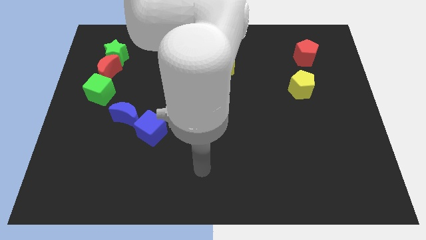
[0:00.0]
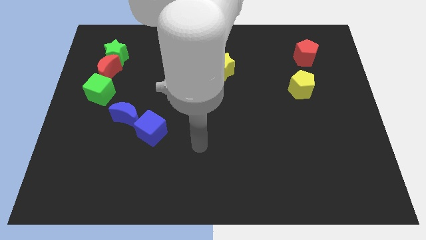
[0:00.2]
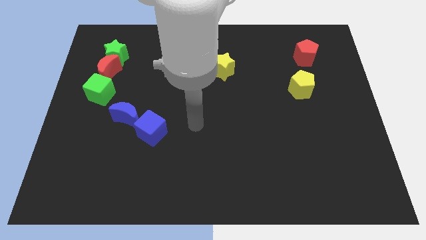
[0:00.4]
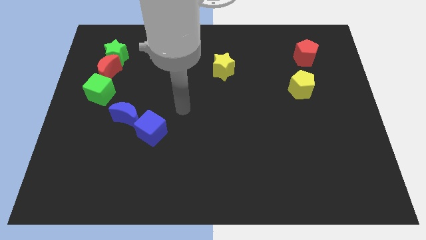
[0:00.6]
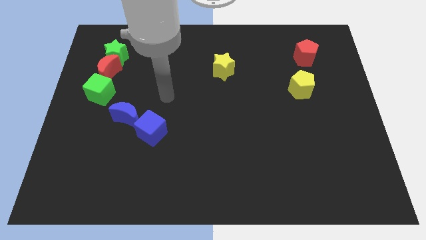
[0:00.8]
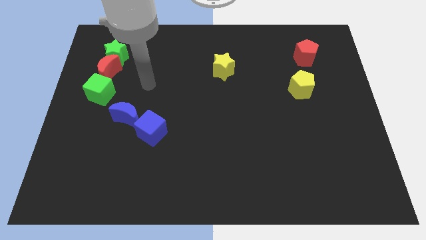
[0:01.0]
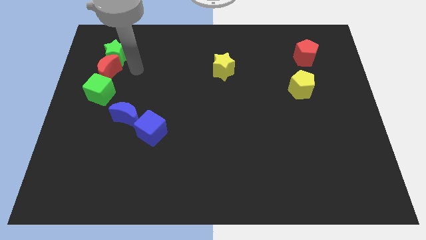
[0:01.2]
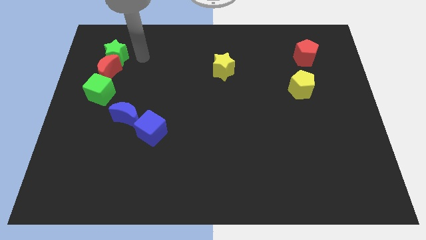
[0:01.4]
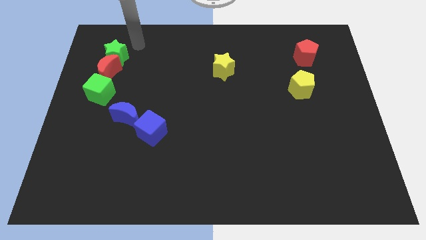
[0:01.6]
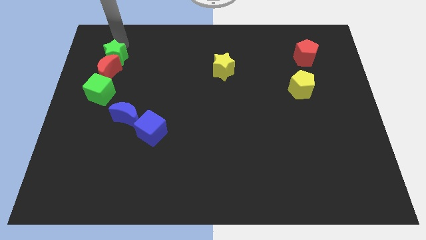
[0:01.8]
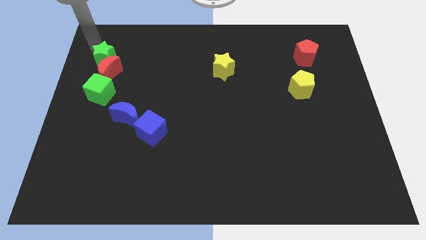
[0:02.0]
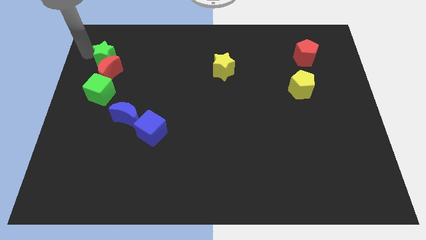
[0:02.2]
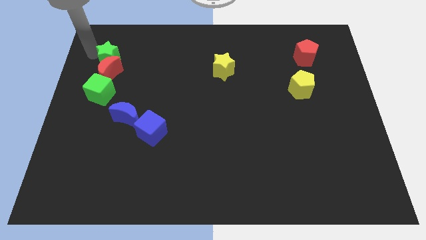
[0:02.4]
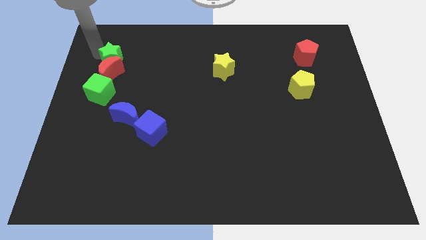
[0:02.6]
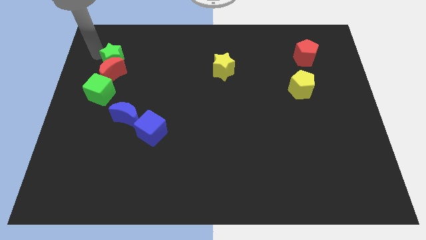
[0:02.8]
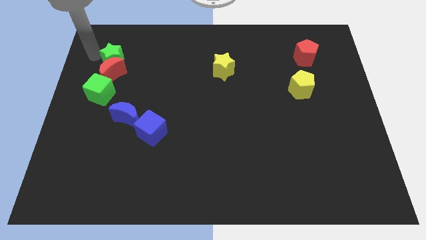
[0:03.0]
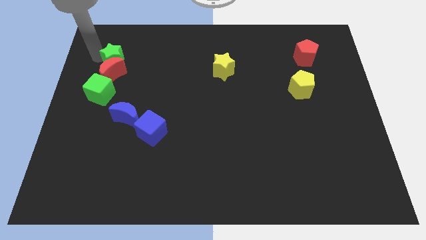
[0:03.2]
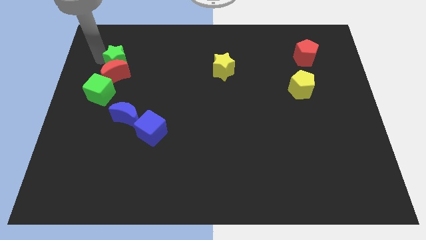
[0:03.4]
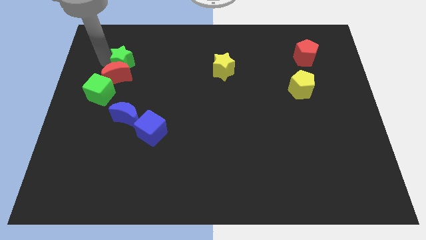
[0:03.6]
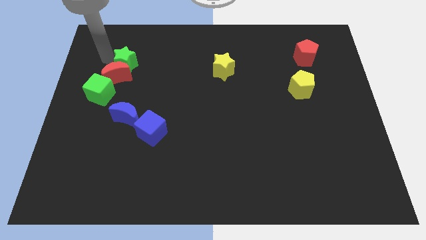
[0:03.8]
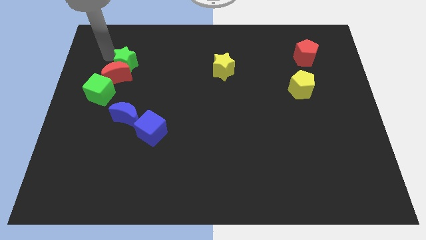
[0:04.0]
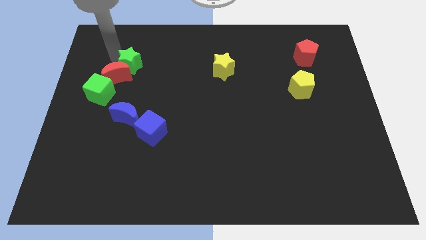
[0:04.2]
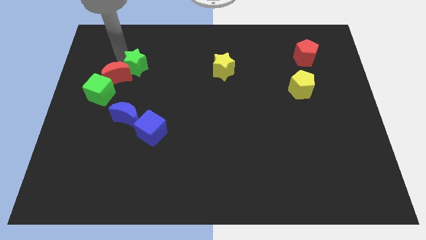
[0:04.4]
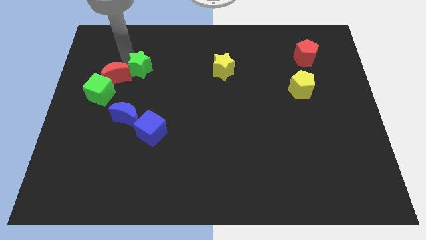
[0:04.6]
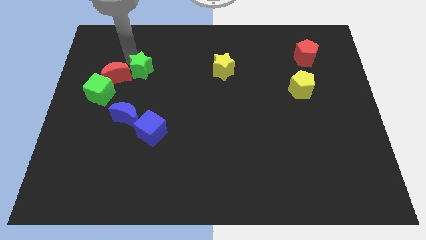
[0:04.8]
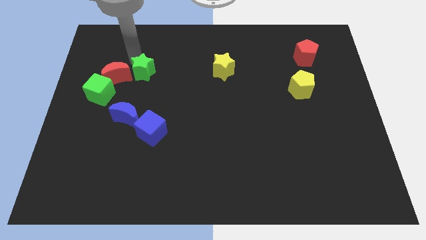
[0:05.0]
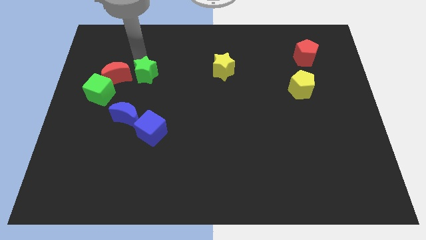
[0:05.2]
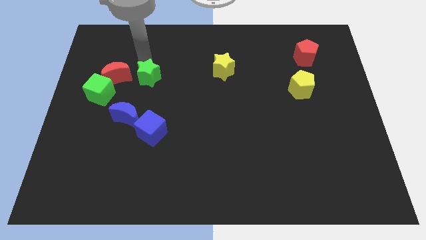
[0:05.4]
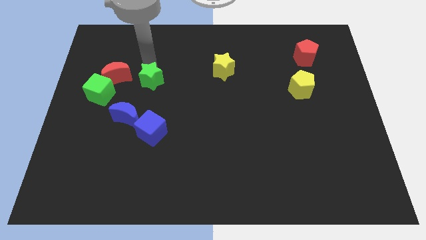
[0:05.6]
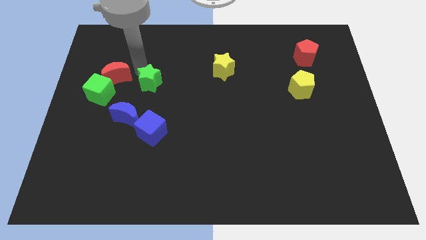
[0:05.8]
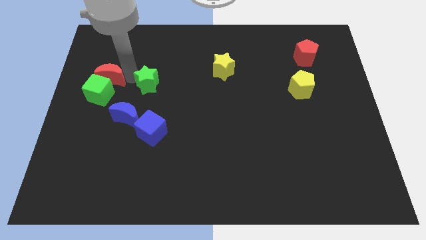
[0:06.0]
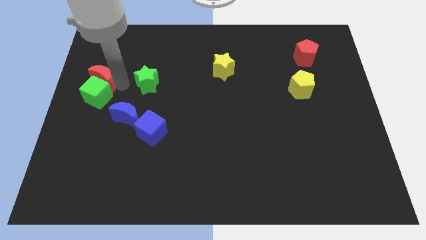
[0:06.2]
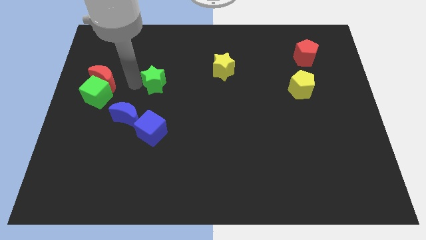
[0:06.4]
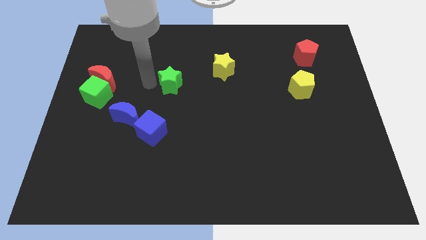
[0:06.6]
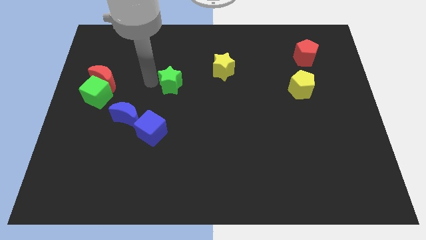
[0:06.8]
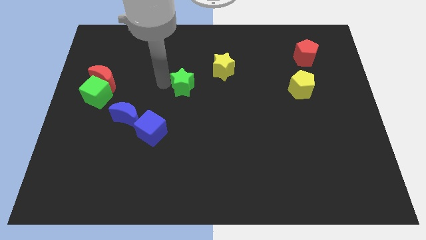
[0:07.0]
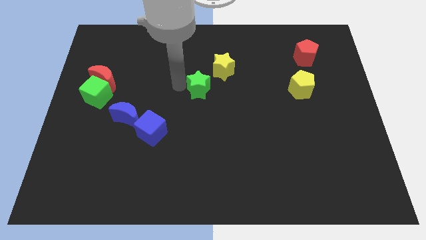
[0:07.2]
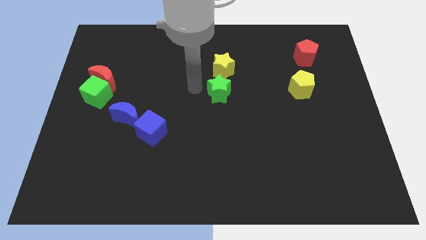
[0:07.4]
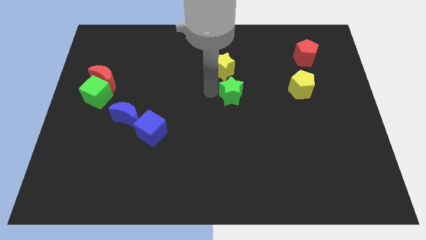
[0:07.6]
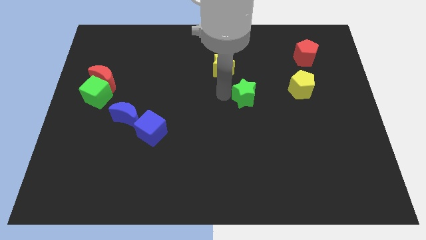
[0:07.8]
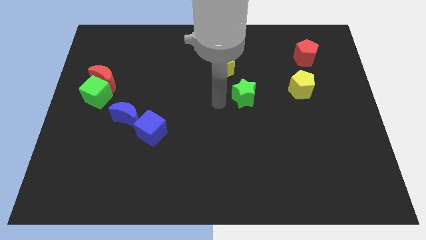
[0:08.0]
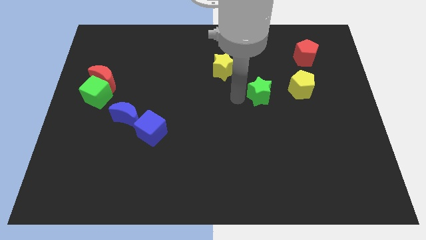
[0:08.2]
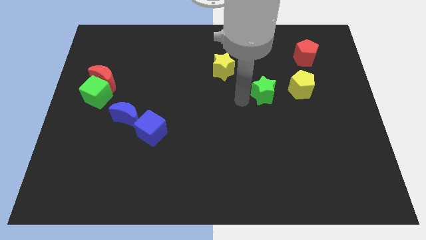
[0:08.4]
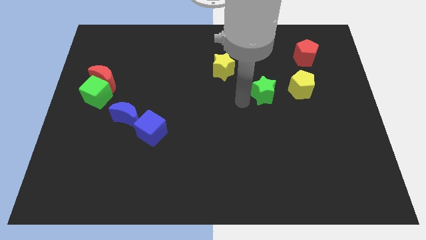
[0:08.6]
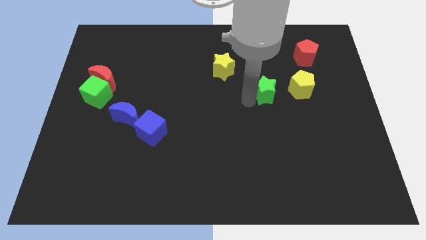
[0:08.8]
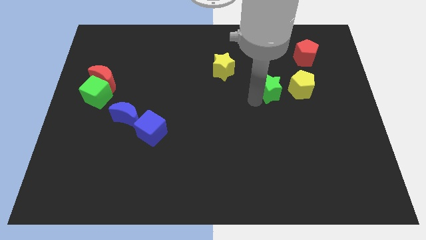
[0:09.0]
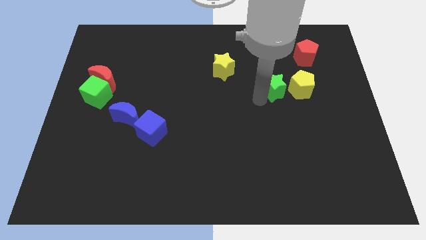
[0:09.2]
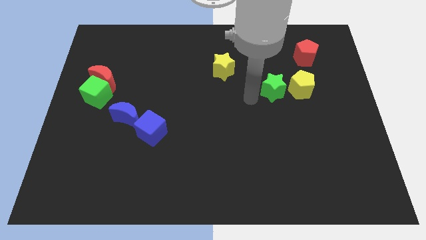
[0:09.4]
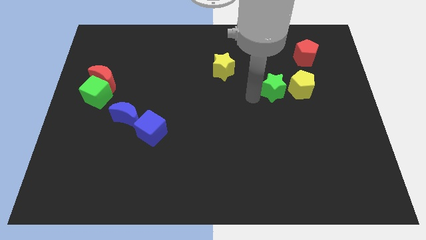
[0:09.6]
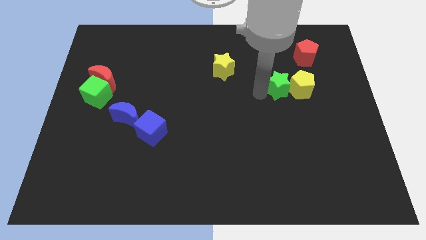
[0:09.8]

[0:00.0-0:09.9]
slide the green star next to the yellow pentagon

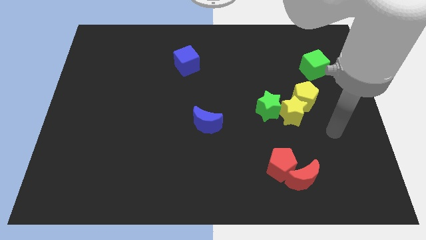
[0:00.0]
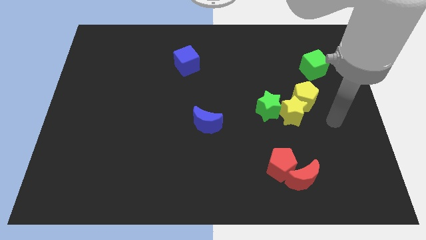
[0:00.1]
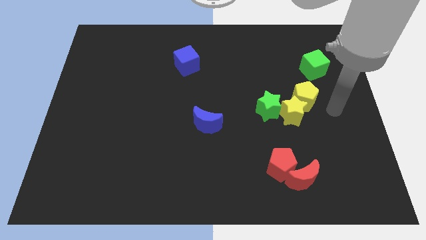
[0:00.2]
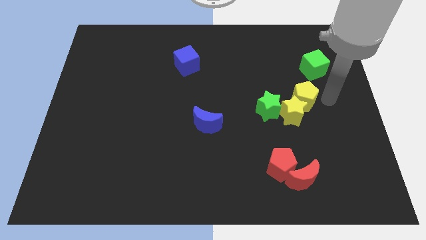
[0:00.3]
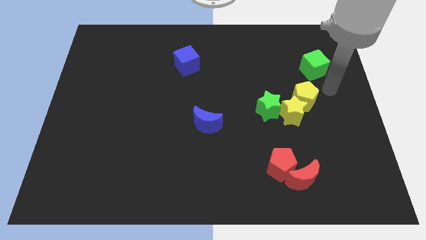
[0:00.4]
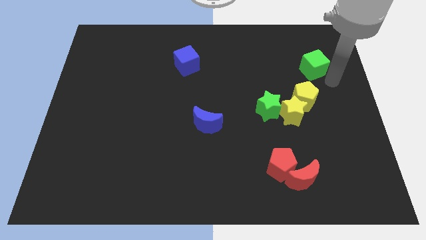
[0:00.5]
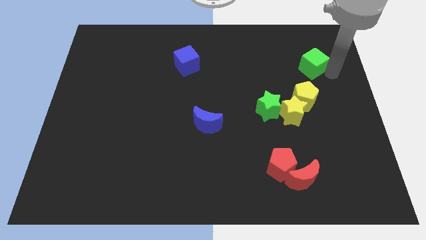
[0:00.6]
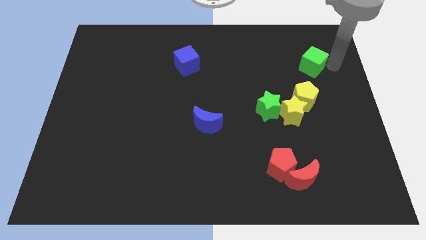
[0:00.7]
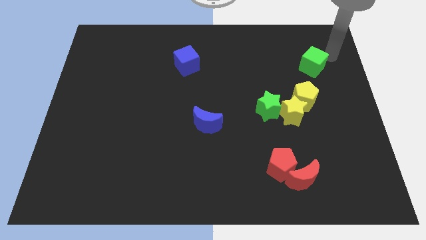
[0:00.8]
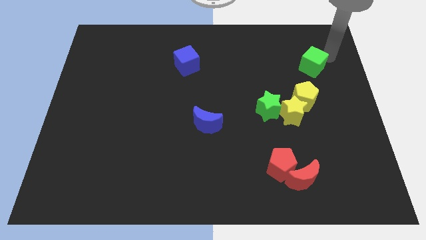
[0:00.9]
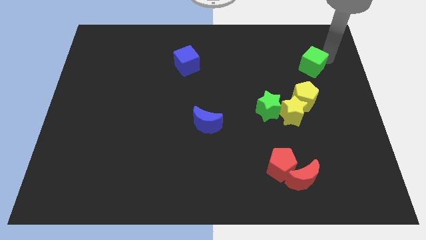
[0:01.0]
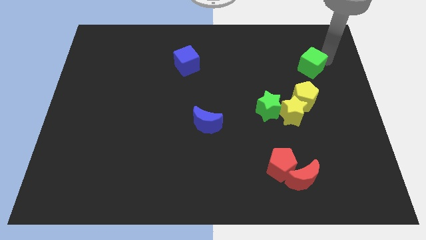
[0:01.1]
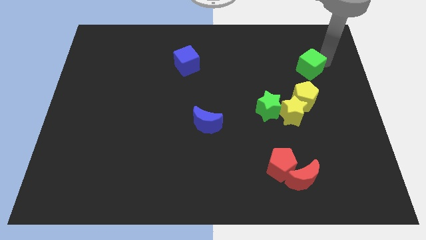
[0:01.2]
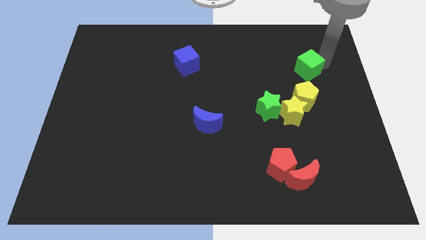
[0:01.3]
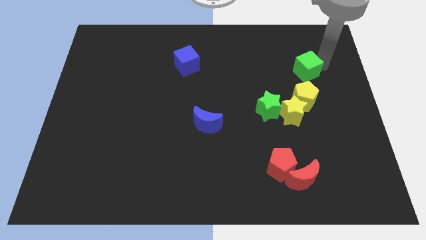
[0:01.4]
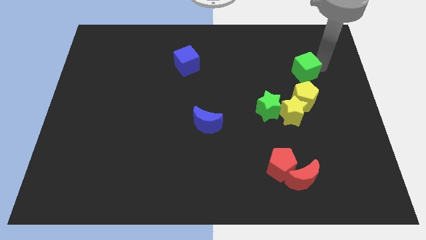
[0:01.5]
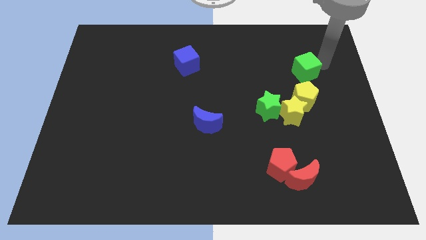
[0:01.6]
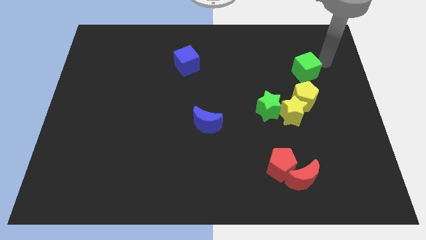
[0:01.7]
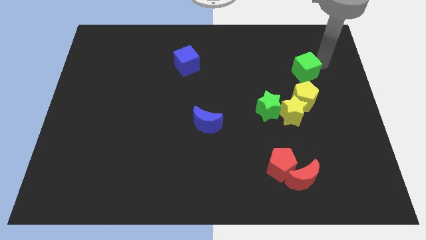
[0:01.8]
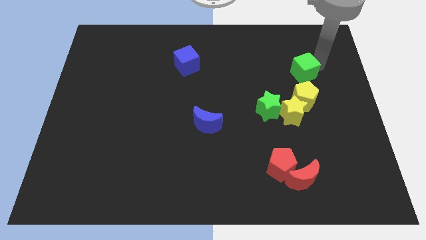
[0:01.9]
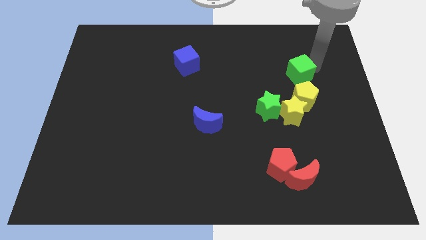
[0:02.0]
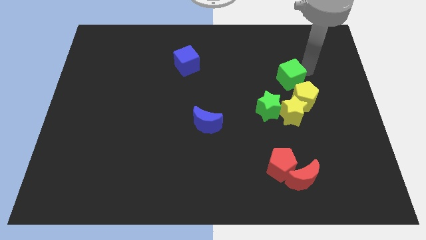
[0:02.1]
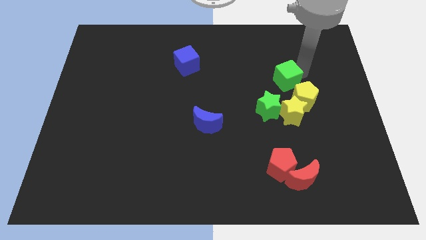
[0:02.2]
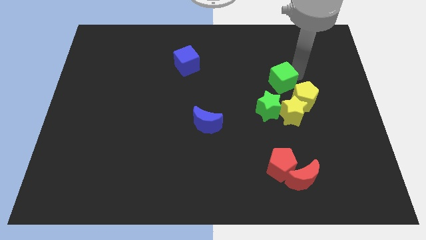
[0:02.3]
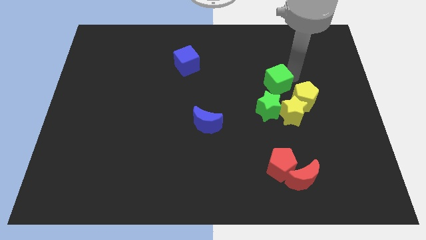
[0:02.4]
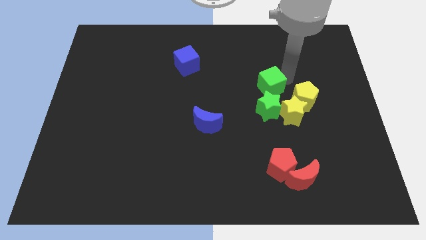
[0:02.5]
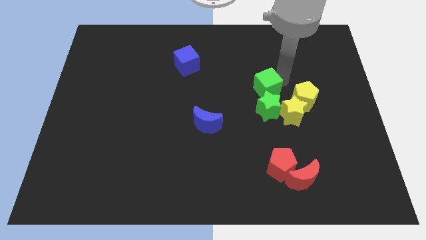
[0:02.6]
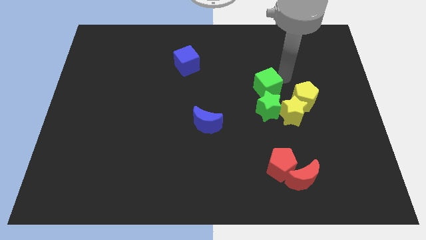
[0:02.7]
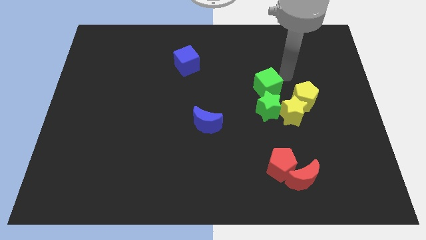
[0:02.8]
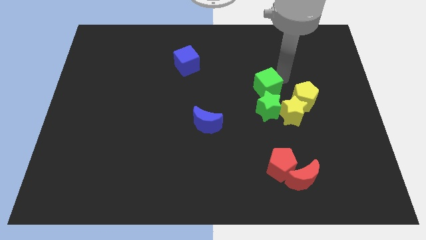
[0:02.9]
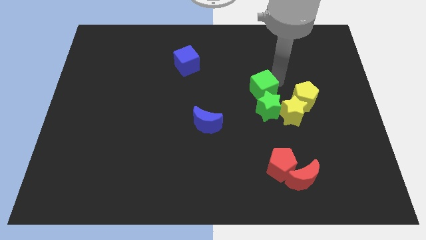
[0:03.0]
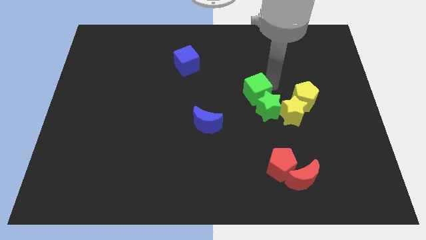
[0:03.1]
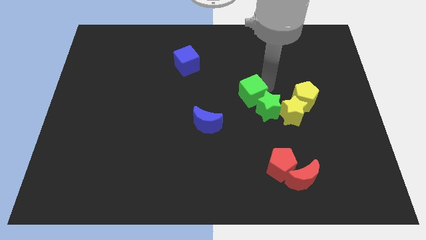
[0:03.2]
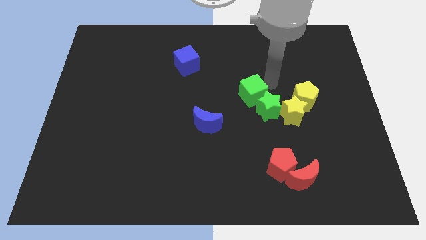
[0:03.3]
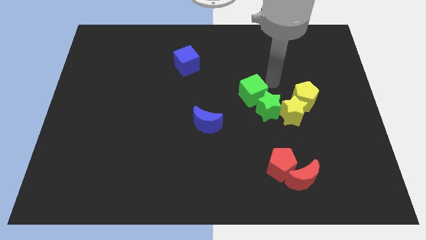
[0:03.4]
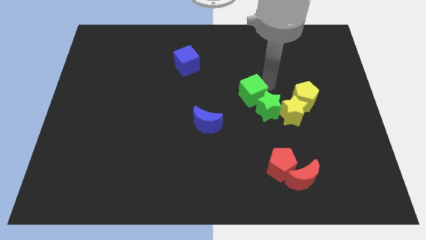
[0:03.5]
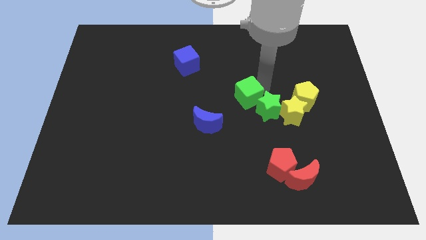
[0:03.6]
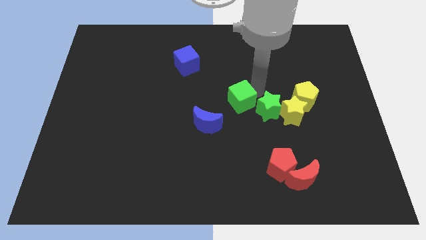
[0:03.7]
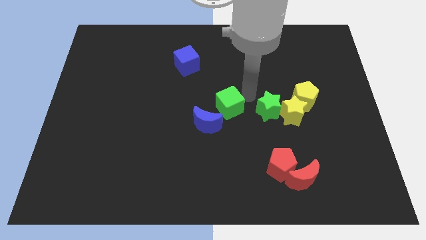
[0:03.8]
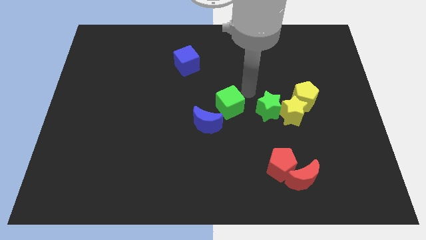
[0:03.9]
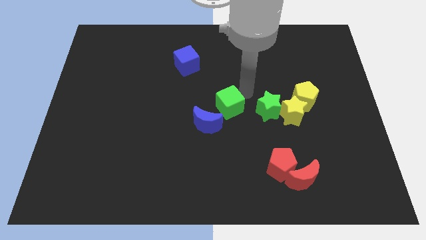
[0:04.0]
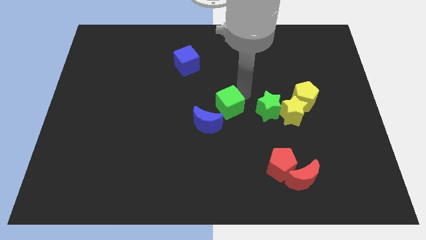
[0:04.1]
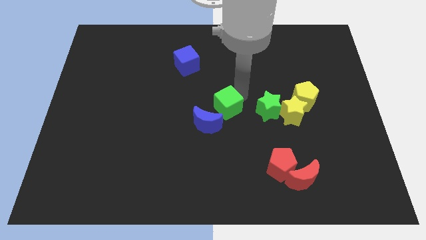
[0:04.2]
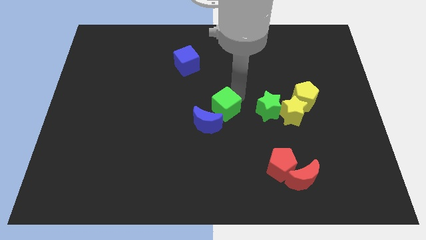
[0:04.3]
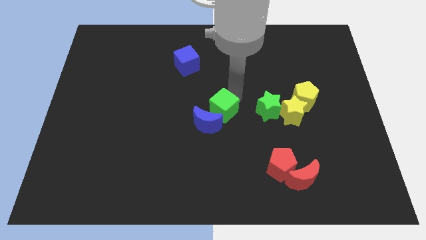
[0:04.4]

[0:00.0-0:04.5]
slide the green cube close to the blue moon
